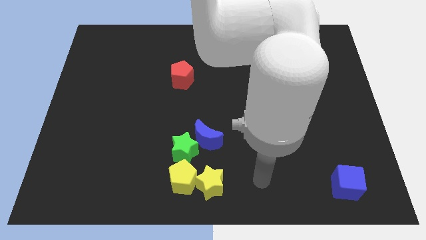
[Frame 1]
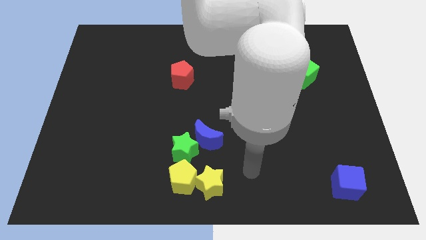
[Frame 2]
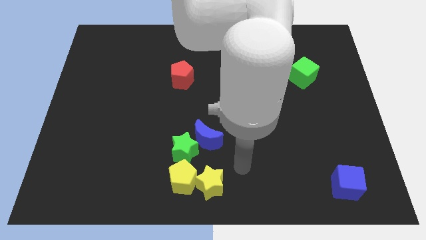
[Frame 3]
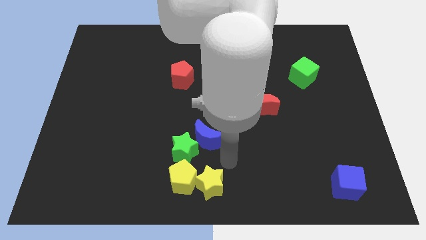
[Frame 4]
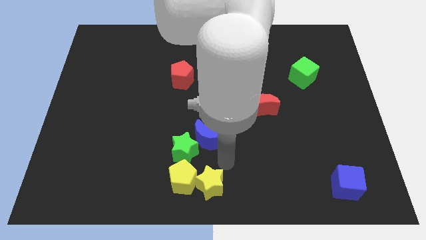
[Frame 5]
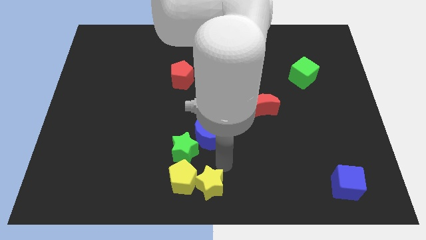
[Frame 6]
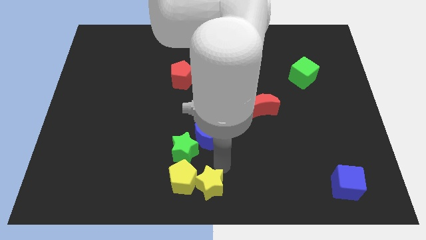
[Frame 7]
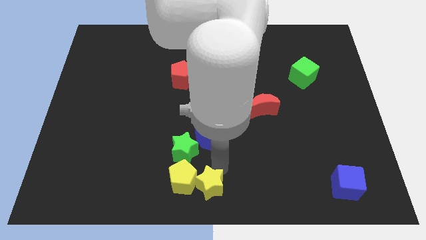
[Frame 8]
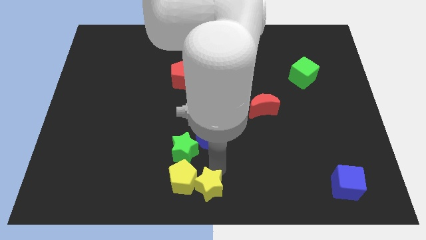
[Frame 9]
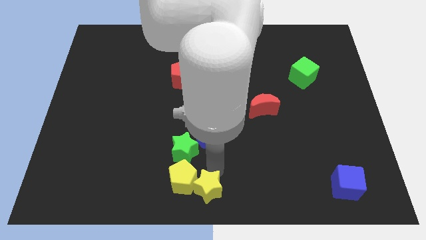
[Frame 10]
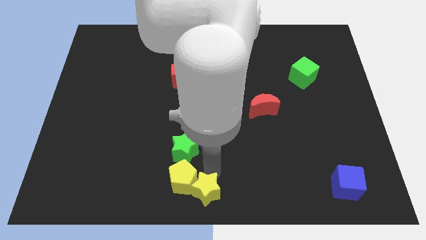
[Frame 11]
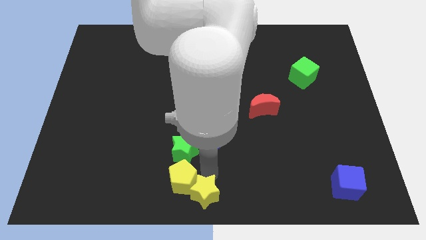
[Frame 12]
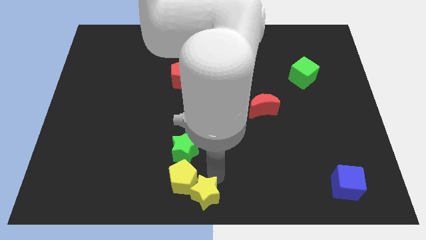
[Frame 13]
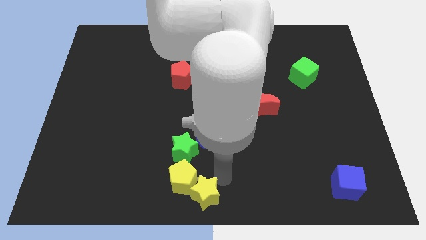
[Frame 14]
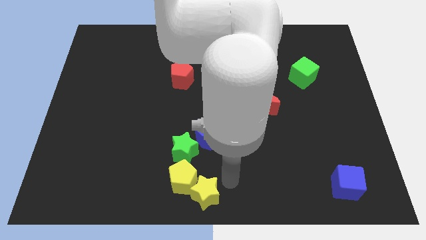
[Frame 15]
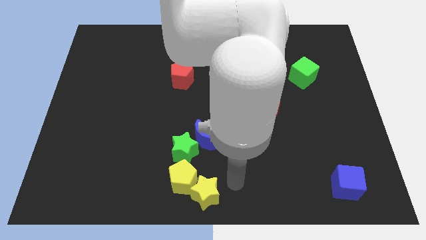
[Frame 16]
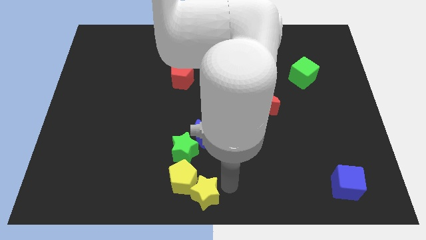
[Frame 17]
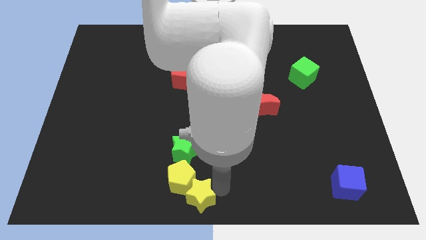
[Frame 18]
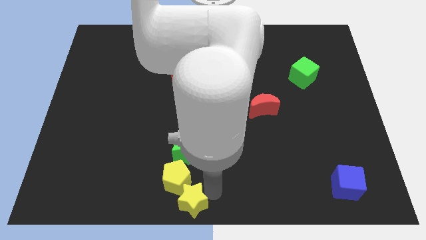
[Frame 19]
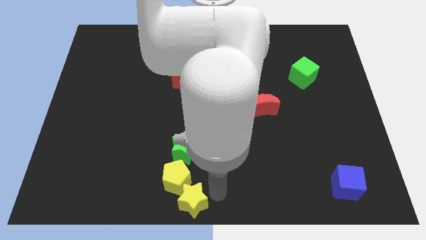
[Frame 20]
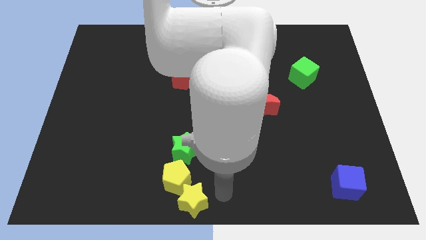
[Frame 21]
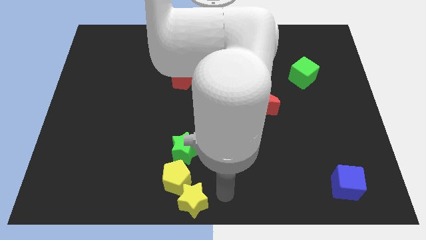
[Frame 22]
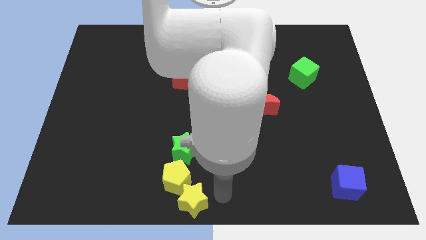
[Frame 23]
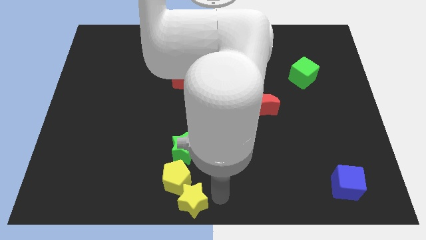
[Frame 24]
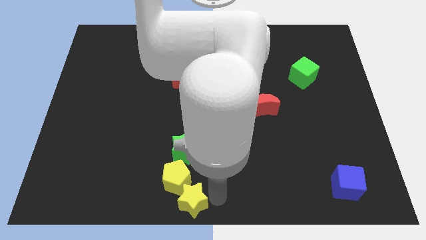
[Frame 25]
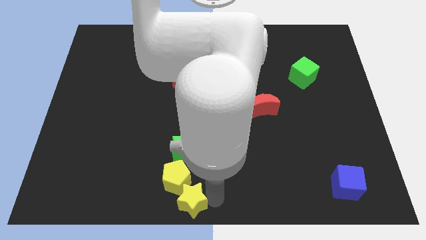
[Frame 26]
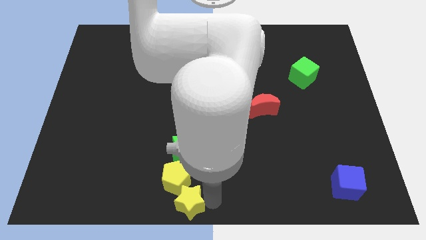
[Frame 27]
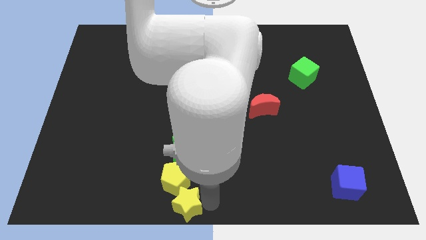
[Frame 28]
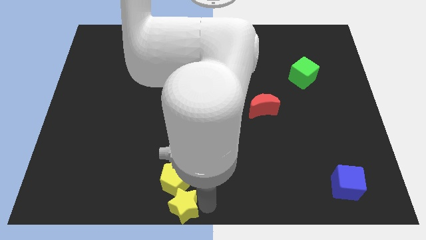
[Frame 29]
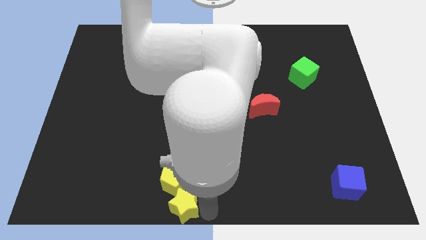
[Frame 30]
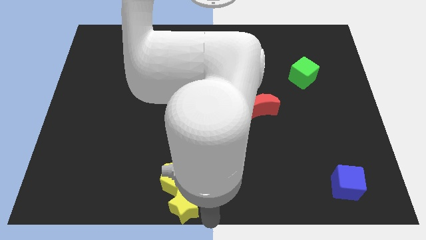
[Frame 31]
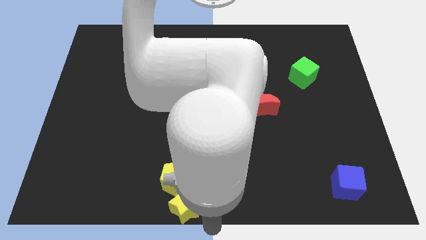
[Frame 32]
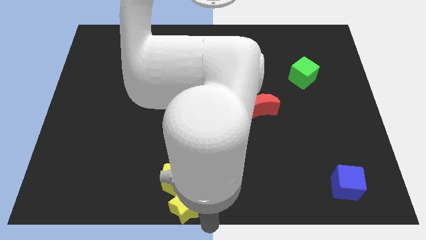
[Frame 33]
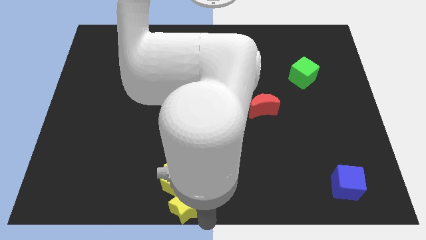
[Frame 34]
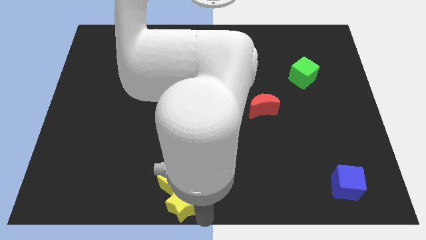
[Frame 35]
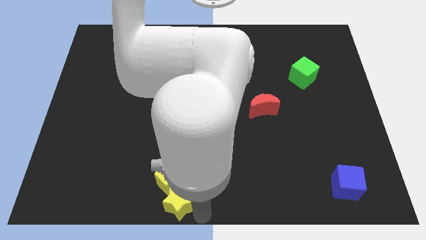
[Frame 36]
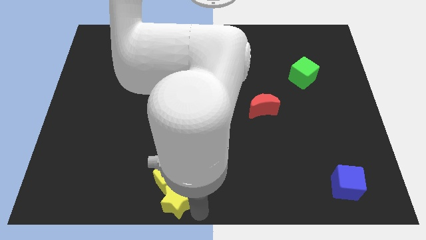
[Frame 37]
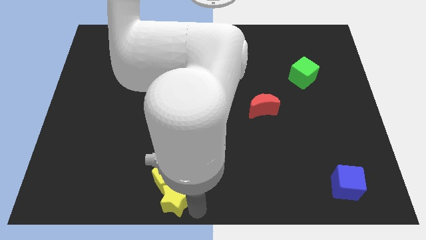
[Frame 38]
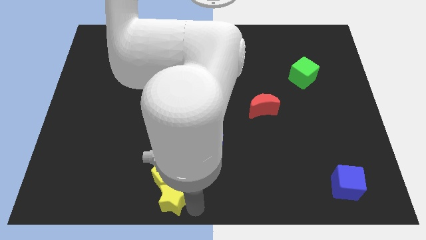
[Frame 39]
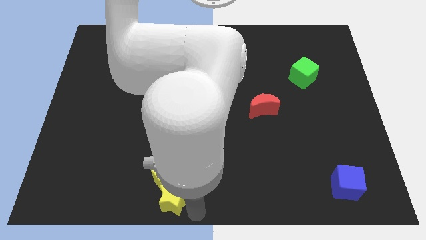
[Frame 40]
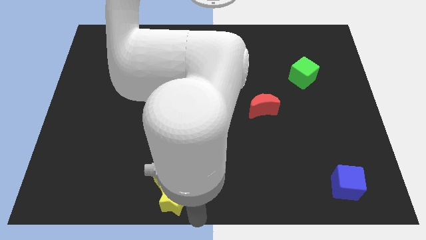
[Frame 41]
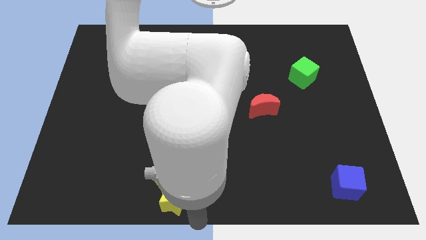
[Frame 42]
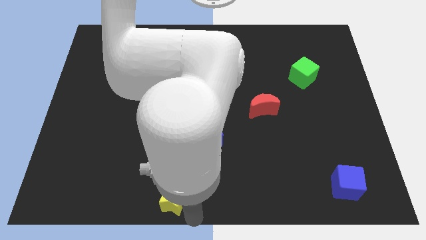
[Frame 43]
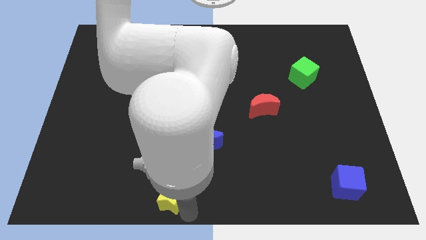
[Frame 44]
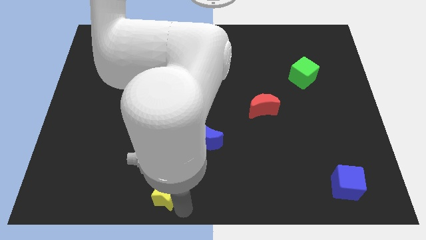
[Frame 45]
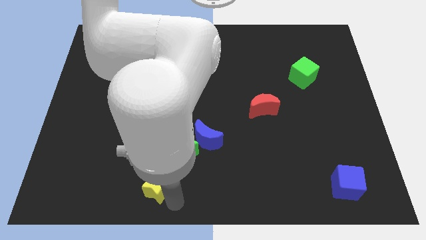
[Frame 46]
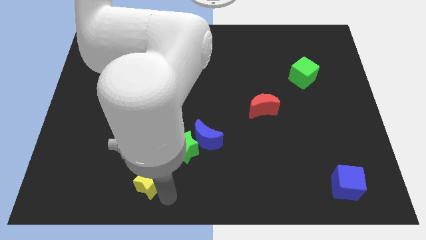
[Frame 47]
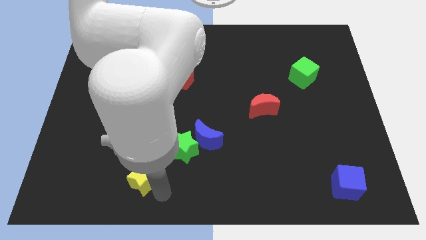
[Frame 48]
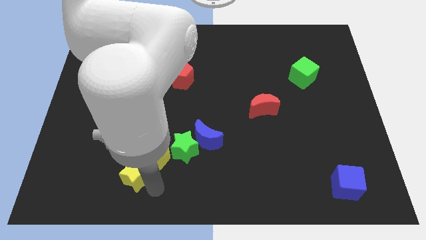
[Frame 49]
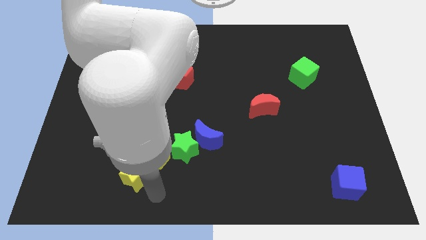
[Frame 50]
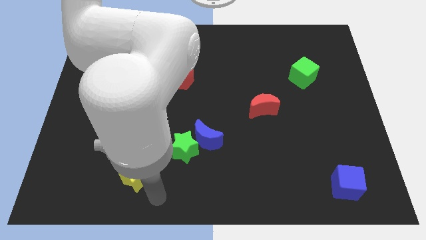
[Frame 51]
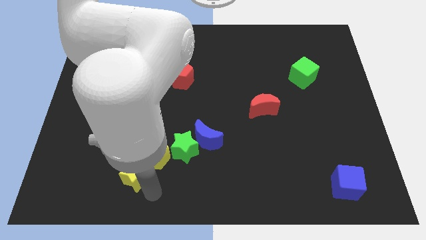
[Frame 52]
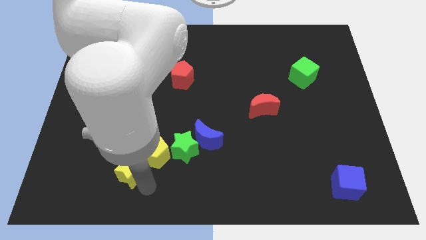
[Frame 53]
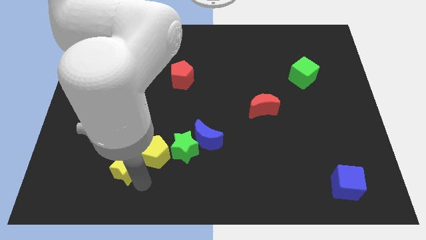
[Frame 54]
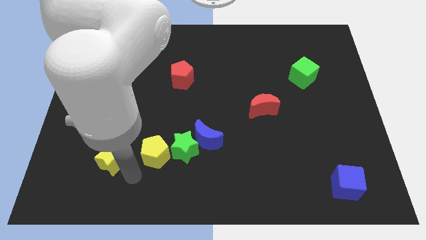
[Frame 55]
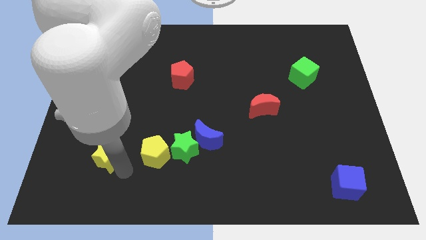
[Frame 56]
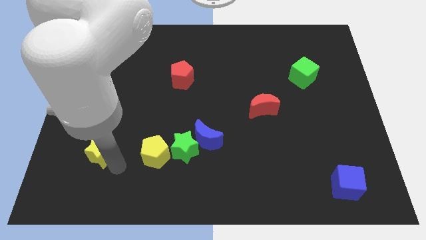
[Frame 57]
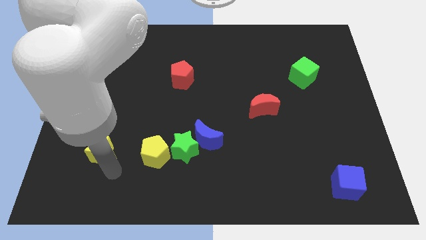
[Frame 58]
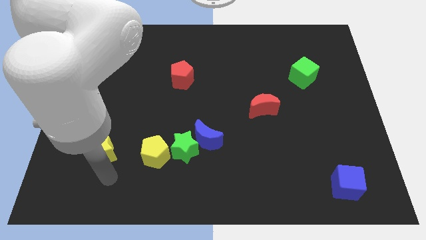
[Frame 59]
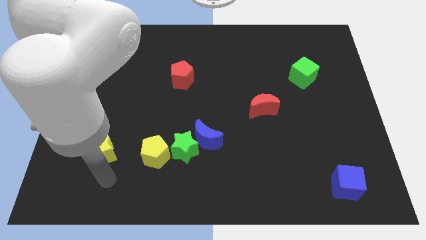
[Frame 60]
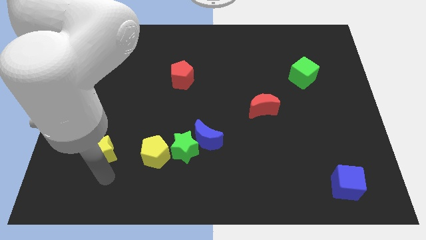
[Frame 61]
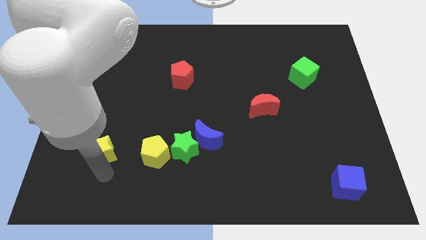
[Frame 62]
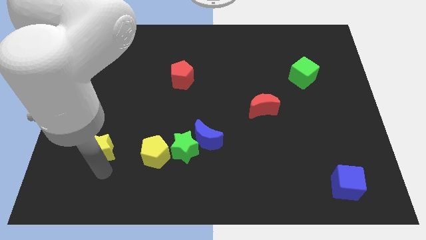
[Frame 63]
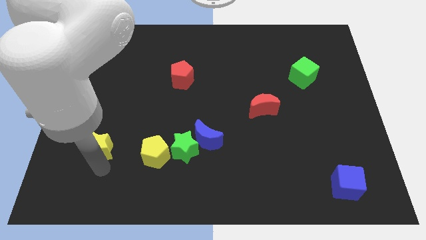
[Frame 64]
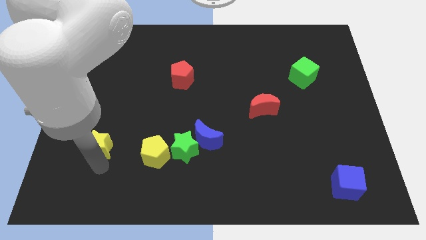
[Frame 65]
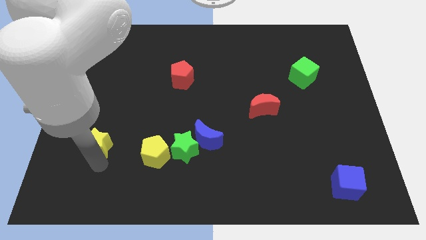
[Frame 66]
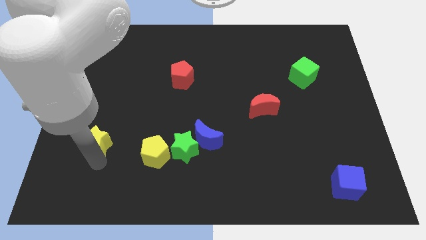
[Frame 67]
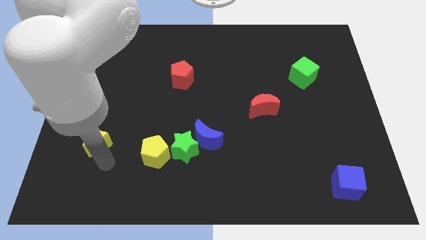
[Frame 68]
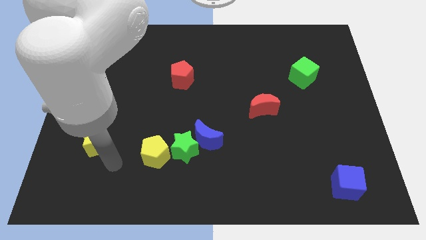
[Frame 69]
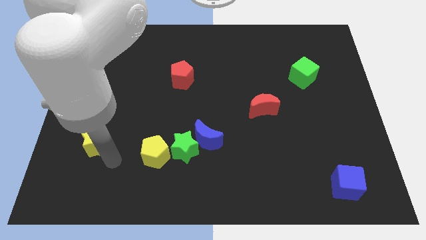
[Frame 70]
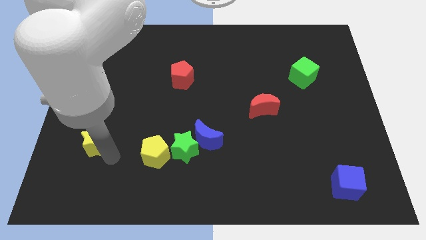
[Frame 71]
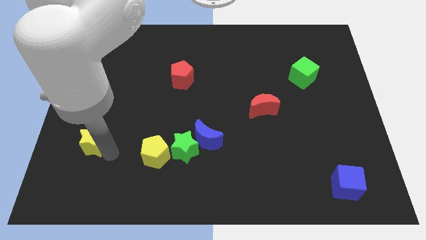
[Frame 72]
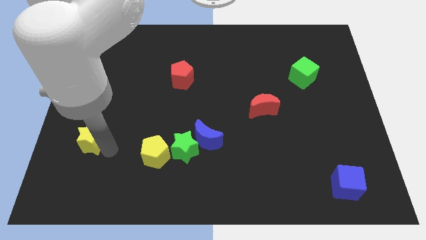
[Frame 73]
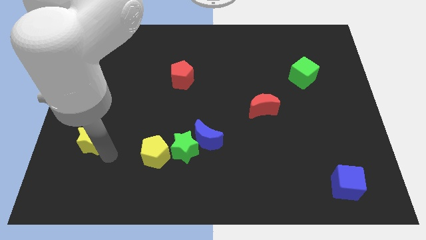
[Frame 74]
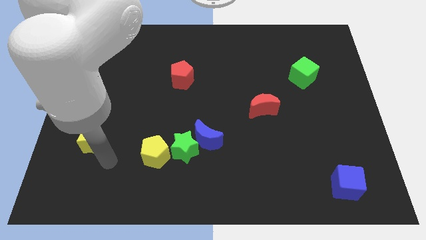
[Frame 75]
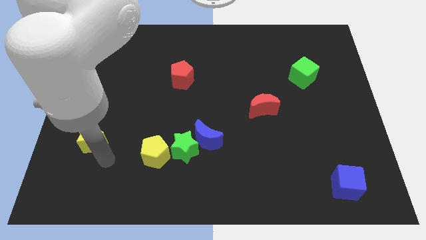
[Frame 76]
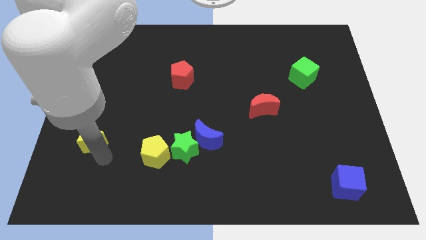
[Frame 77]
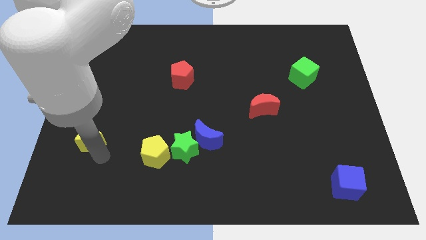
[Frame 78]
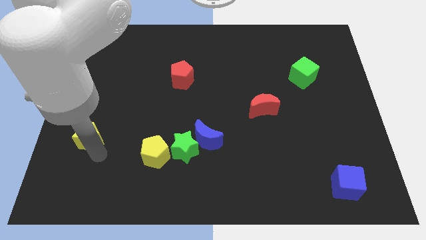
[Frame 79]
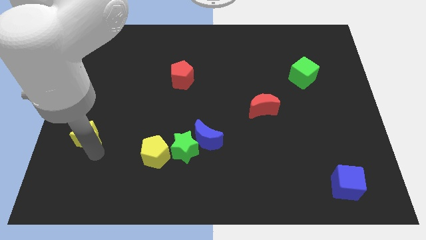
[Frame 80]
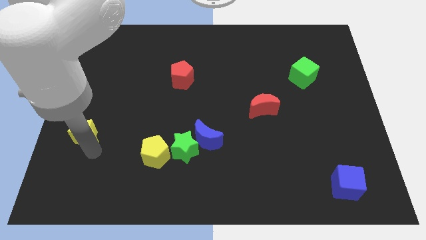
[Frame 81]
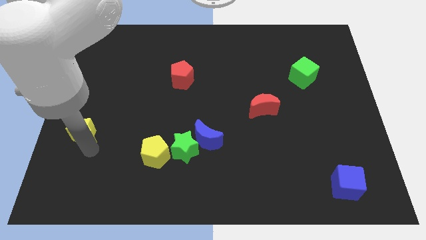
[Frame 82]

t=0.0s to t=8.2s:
move the yellow star to the left side of the board
